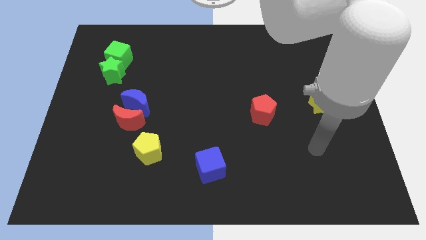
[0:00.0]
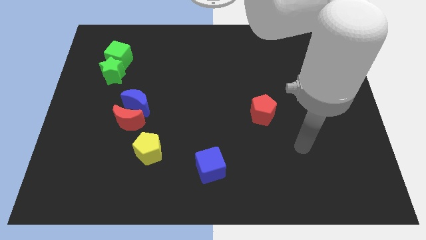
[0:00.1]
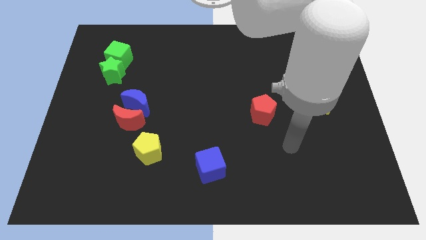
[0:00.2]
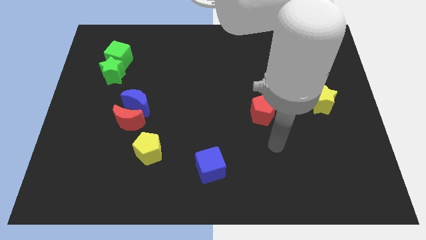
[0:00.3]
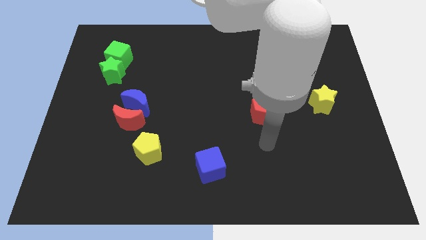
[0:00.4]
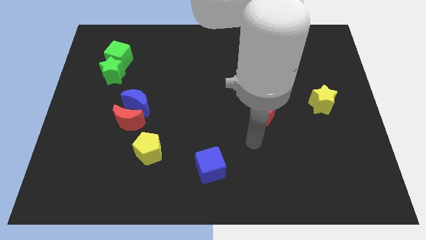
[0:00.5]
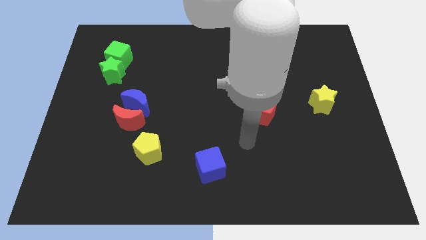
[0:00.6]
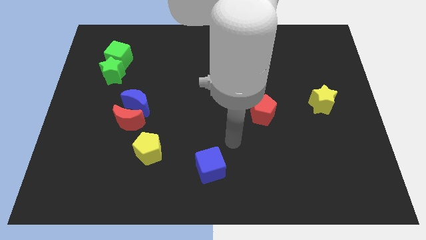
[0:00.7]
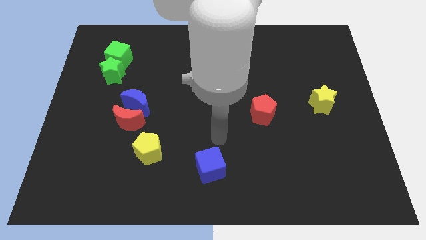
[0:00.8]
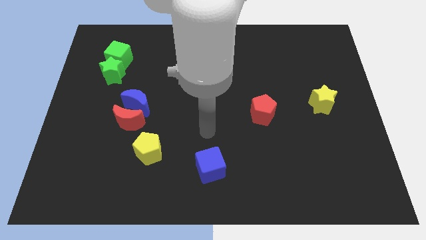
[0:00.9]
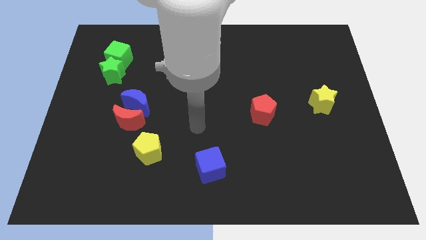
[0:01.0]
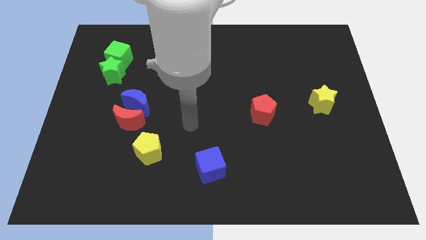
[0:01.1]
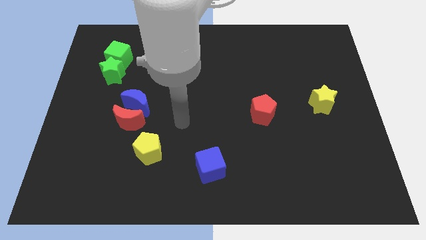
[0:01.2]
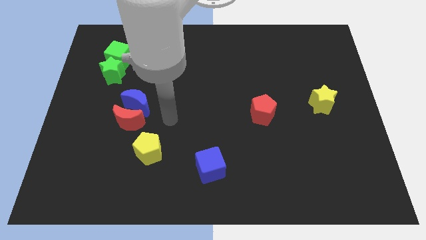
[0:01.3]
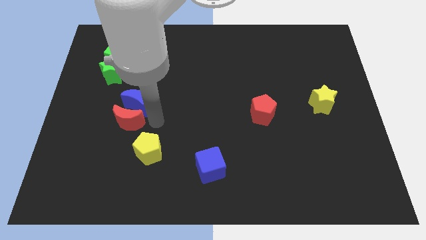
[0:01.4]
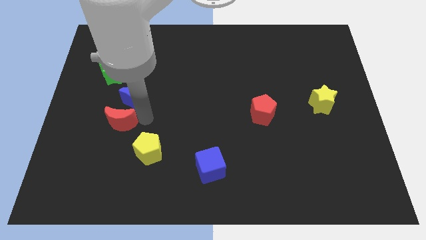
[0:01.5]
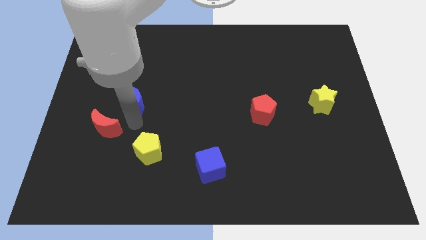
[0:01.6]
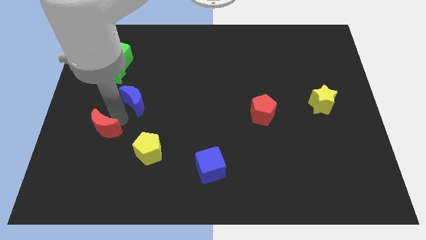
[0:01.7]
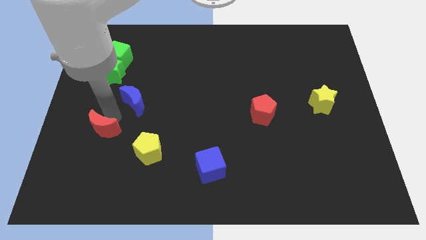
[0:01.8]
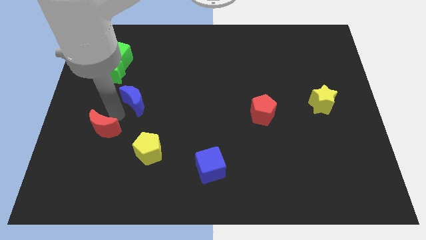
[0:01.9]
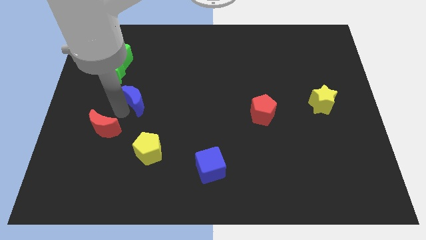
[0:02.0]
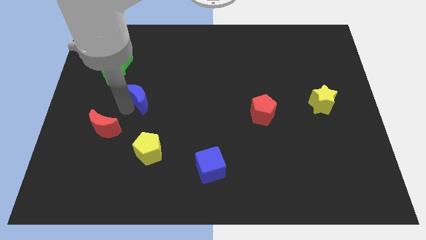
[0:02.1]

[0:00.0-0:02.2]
pull the blue moon apart from the red moon

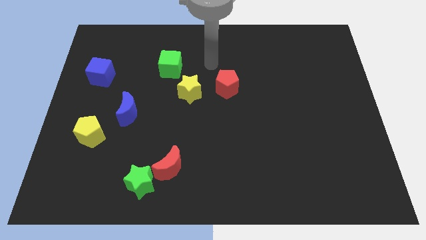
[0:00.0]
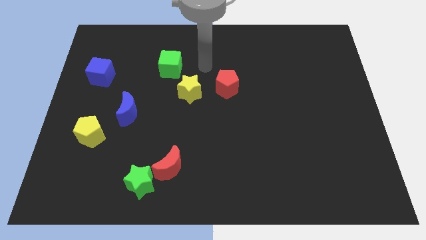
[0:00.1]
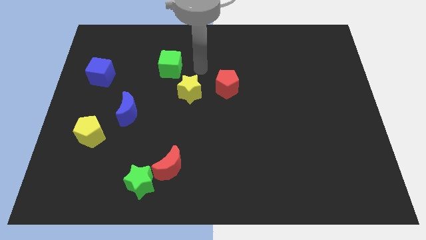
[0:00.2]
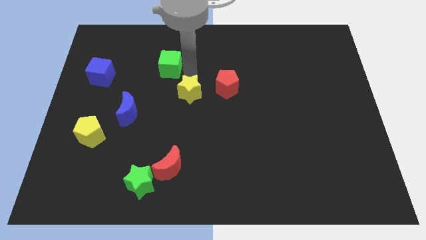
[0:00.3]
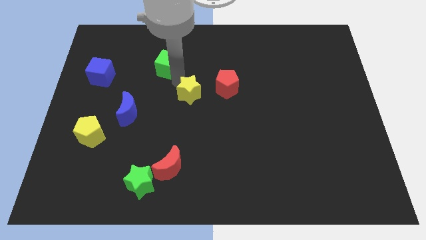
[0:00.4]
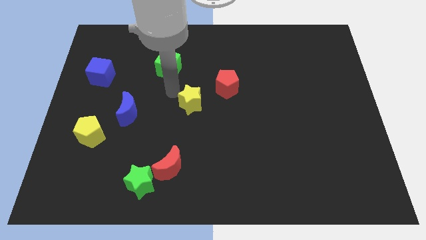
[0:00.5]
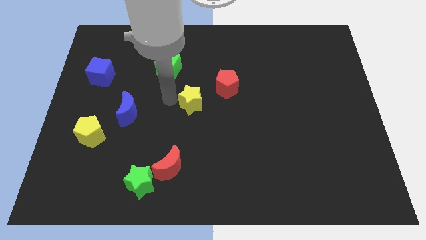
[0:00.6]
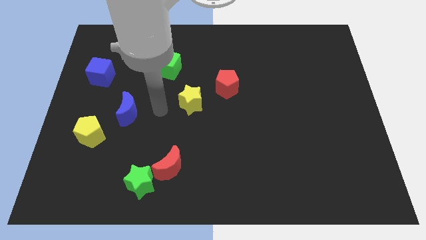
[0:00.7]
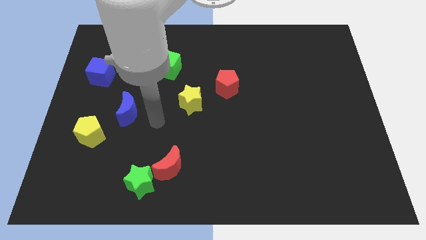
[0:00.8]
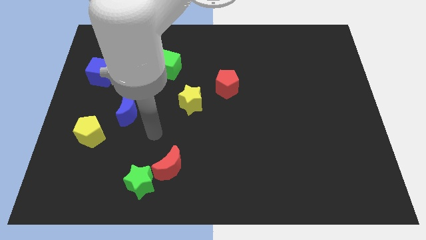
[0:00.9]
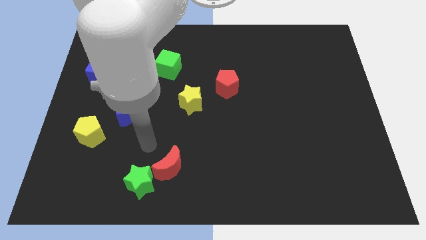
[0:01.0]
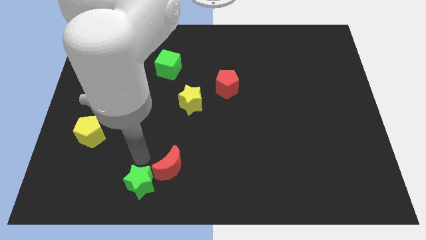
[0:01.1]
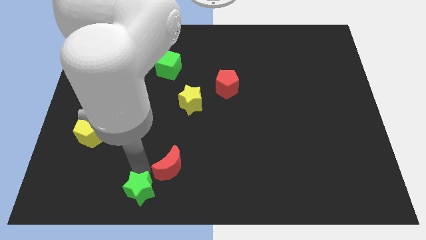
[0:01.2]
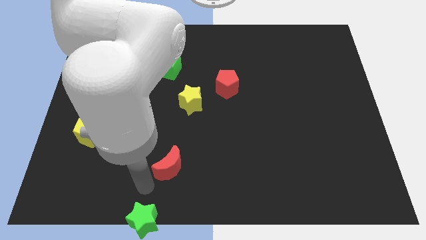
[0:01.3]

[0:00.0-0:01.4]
separate the red moon from the green star

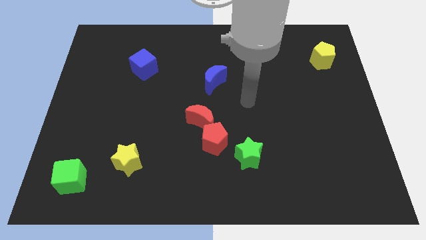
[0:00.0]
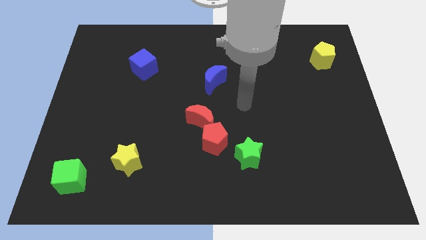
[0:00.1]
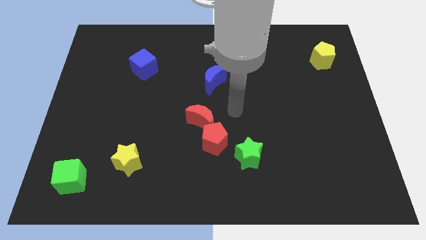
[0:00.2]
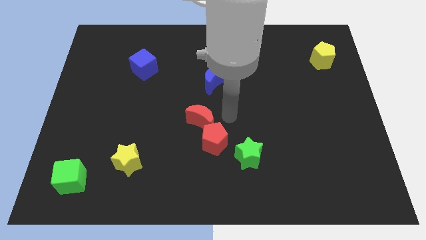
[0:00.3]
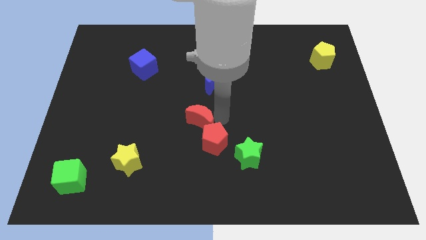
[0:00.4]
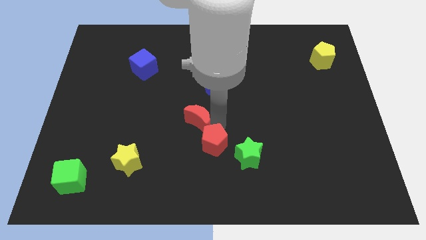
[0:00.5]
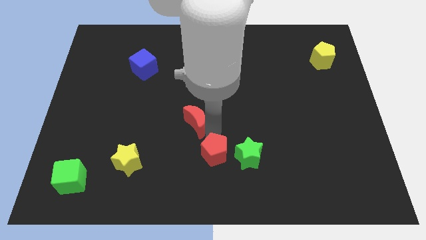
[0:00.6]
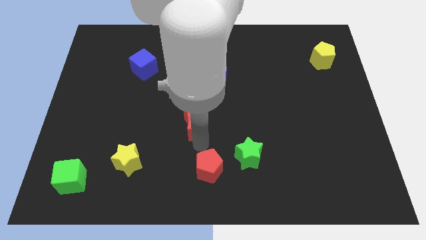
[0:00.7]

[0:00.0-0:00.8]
separate the red moon from the red pentagon

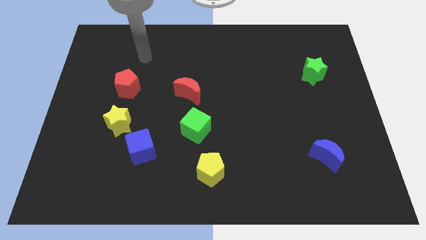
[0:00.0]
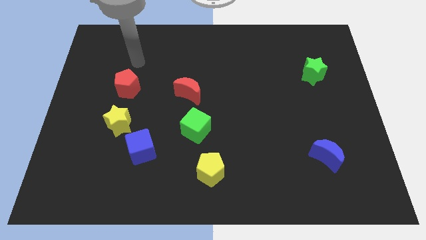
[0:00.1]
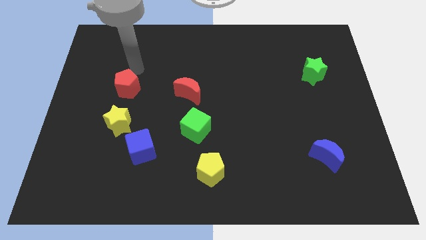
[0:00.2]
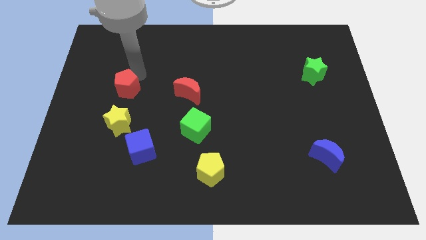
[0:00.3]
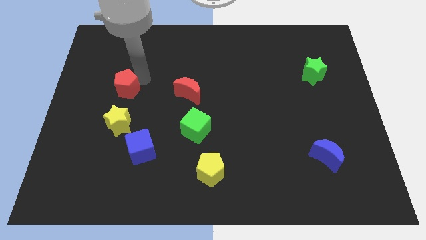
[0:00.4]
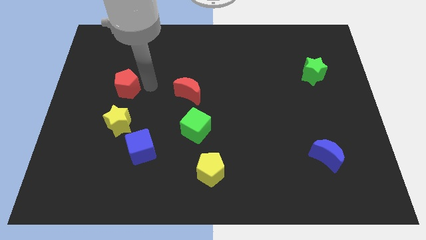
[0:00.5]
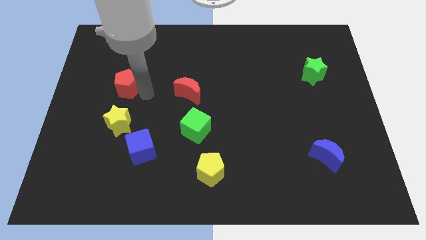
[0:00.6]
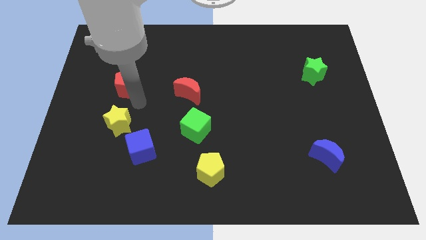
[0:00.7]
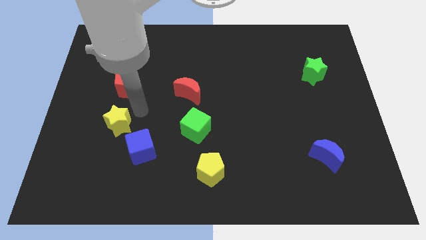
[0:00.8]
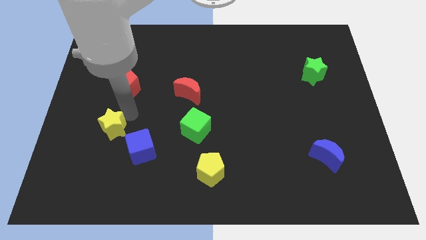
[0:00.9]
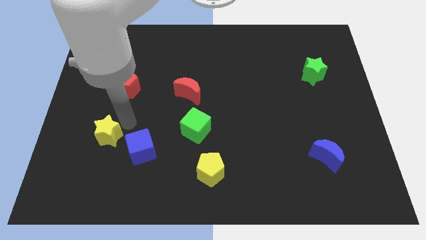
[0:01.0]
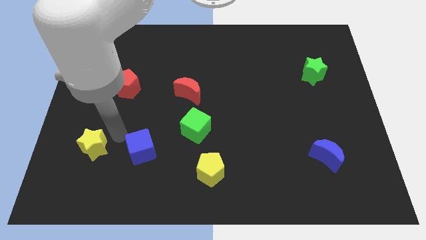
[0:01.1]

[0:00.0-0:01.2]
move the blue cube away from the yellow star

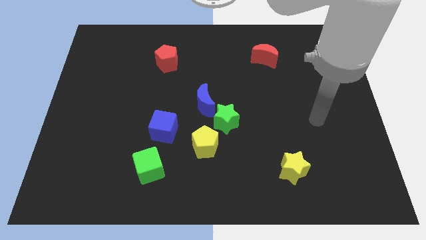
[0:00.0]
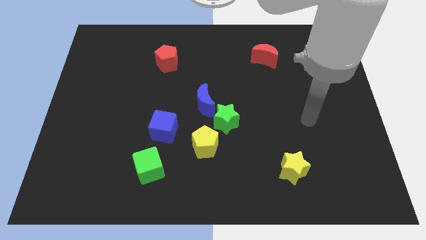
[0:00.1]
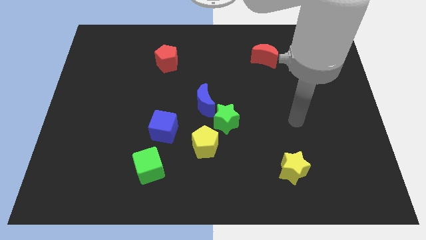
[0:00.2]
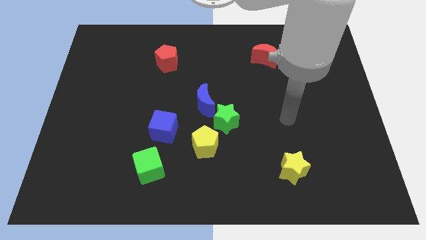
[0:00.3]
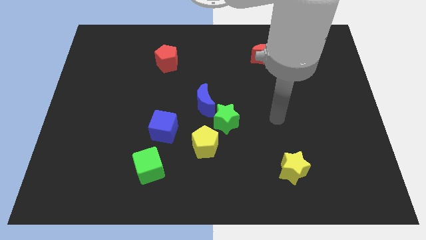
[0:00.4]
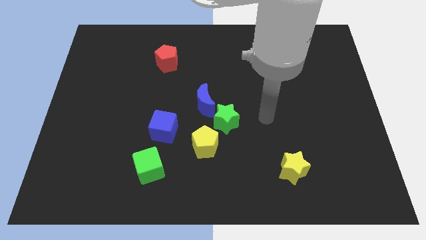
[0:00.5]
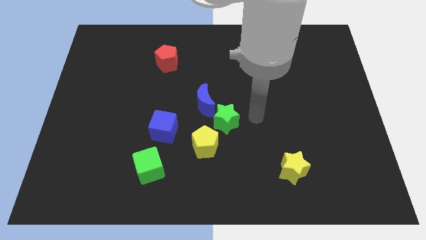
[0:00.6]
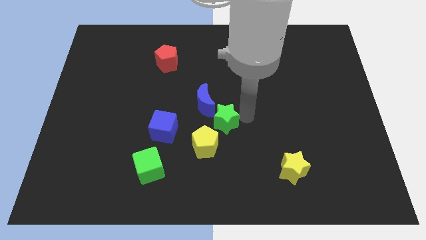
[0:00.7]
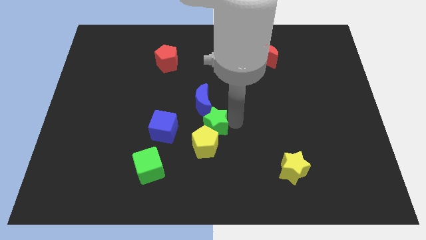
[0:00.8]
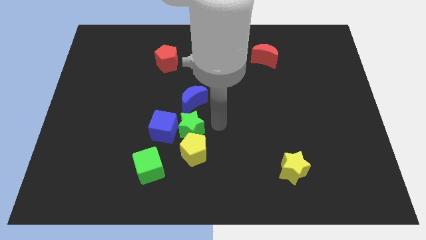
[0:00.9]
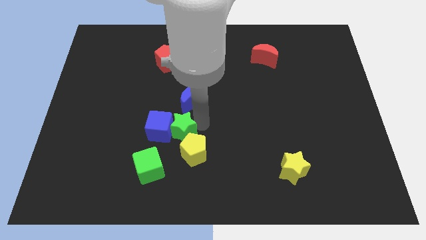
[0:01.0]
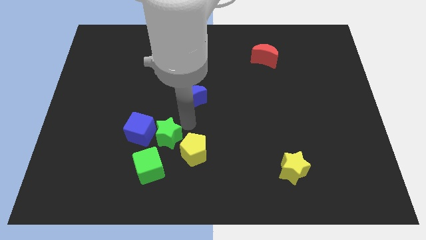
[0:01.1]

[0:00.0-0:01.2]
separate the blue moon from the green star

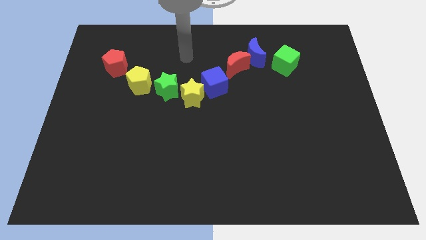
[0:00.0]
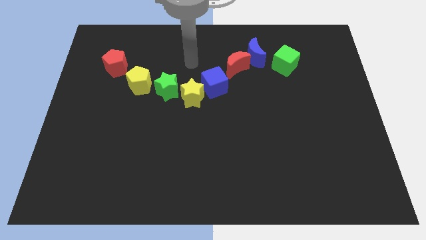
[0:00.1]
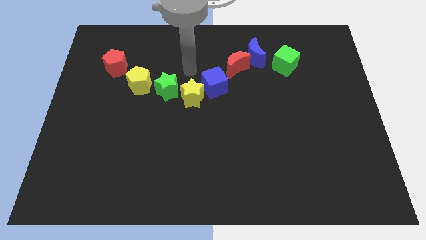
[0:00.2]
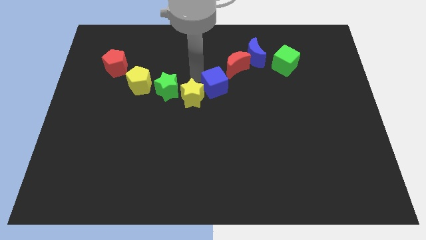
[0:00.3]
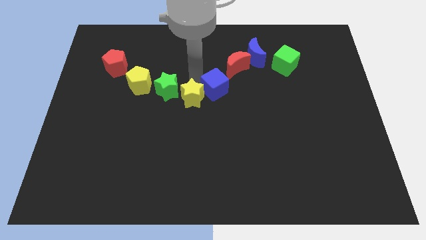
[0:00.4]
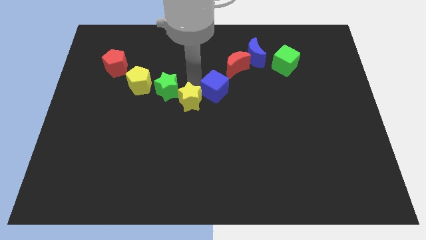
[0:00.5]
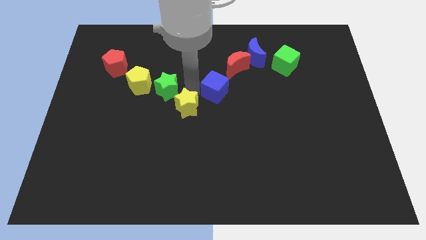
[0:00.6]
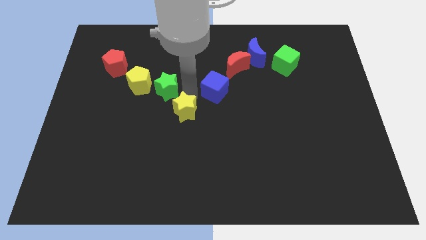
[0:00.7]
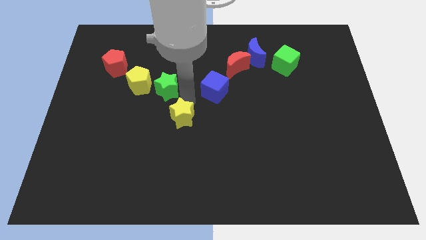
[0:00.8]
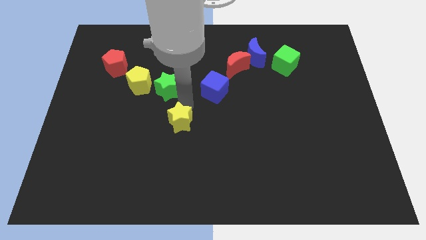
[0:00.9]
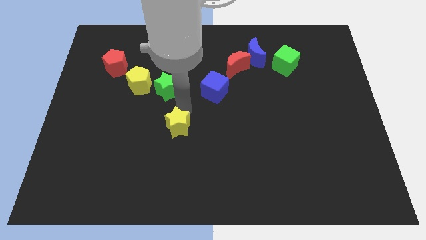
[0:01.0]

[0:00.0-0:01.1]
pull the yellow star apart from the green star and blue cube

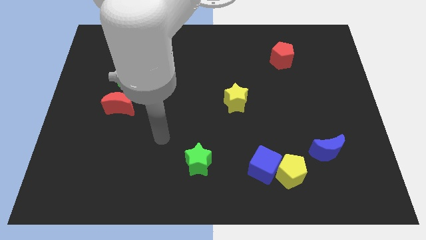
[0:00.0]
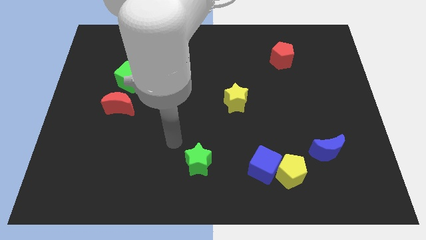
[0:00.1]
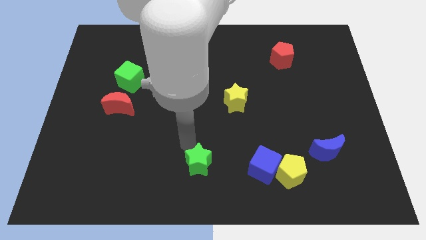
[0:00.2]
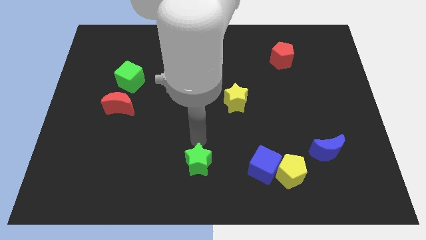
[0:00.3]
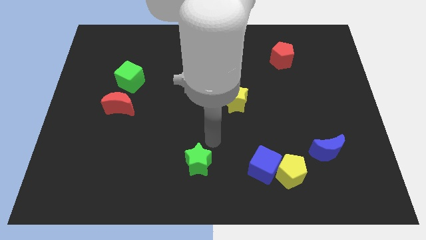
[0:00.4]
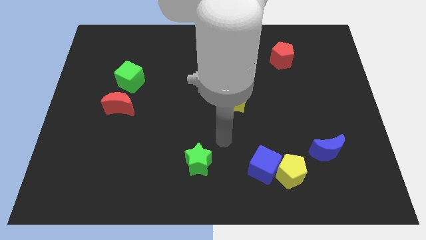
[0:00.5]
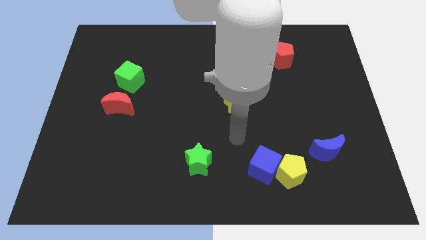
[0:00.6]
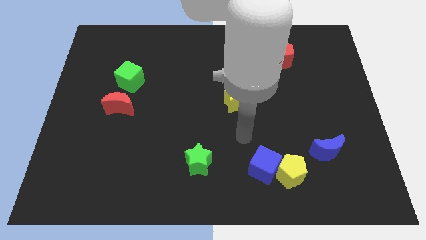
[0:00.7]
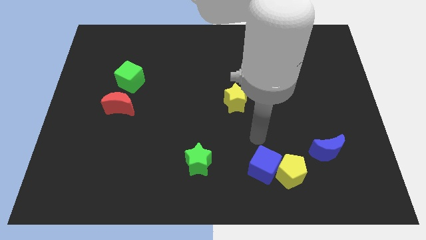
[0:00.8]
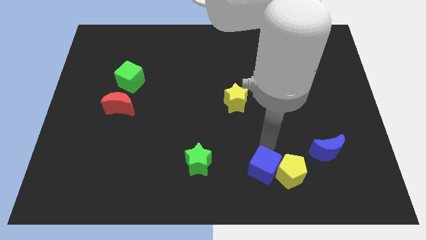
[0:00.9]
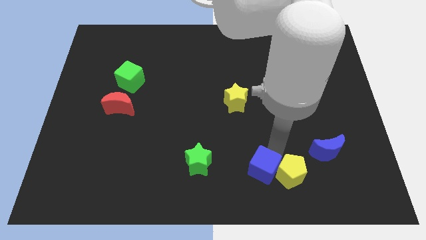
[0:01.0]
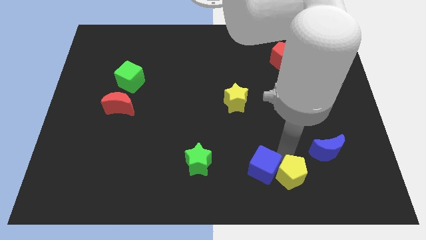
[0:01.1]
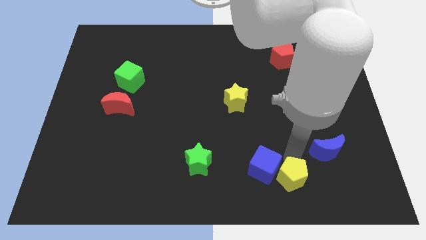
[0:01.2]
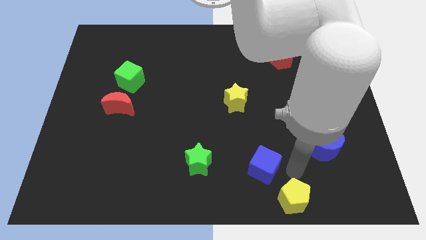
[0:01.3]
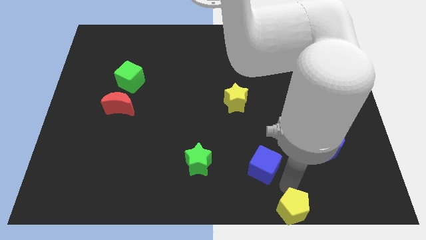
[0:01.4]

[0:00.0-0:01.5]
separate the blue cube from the yellow pentagon
